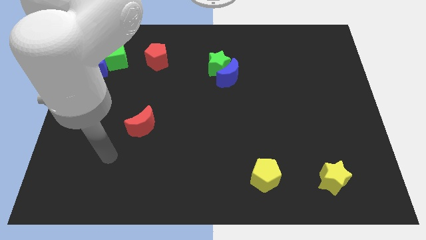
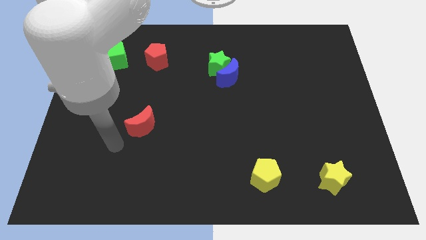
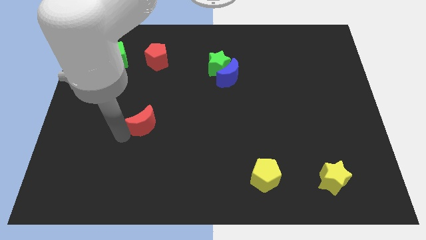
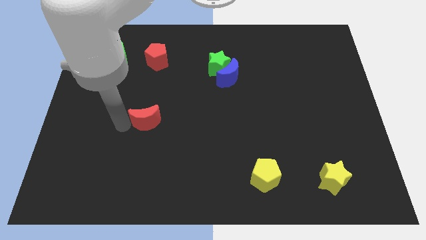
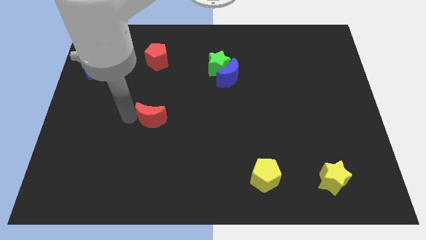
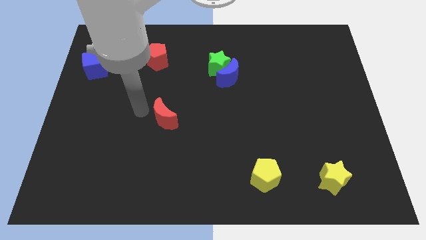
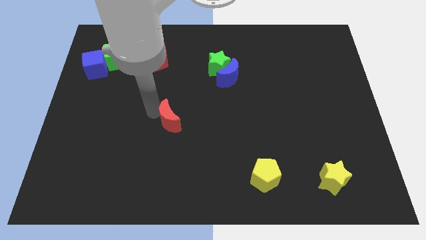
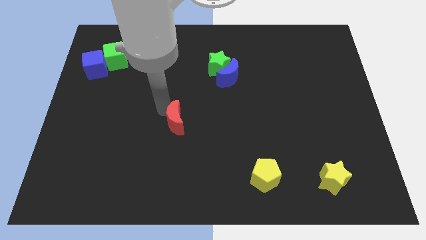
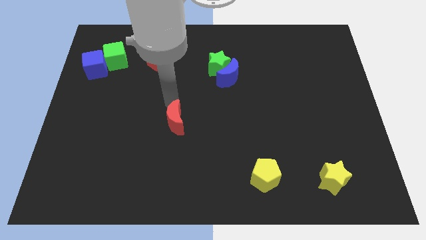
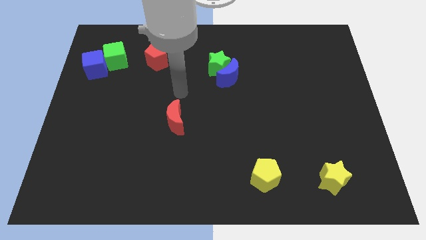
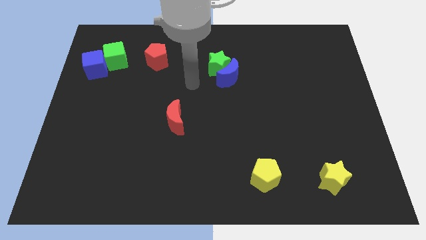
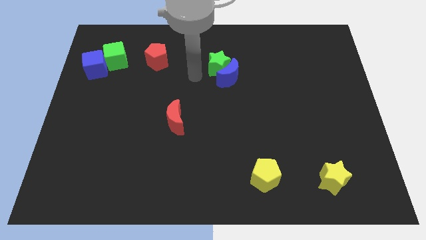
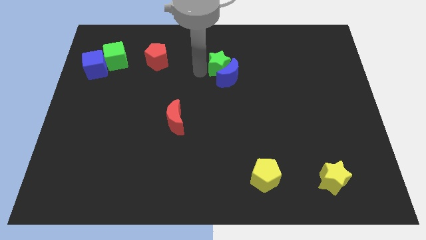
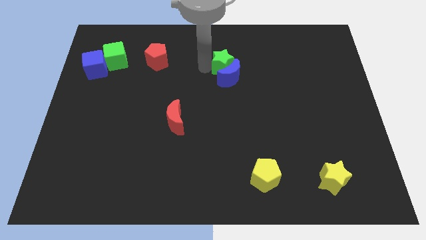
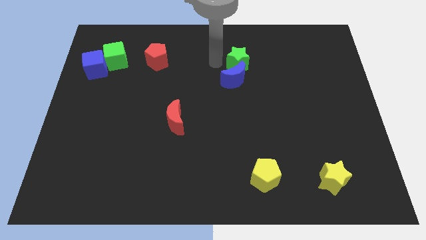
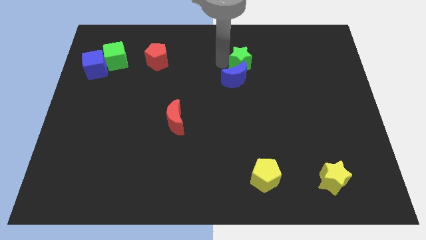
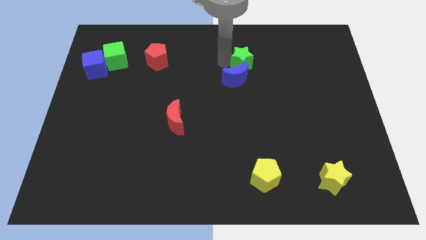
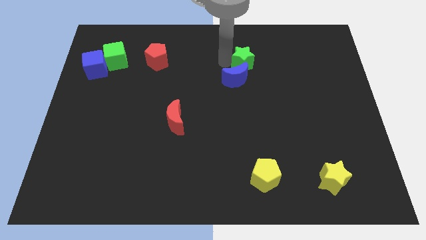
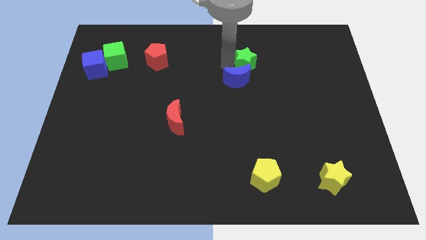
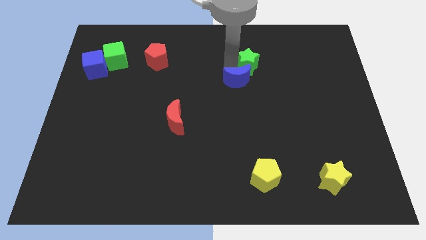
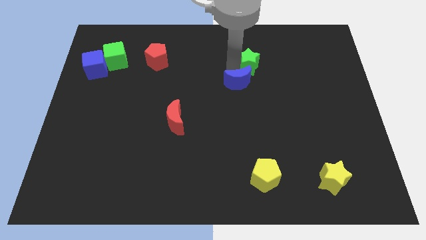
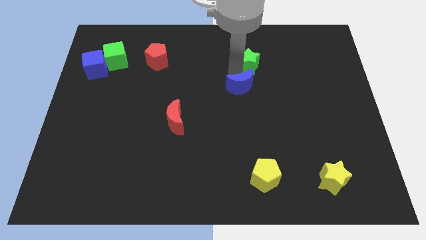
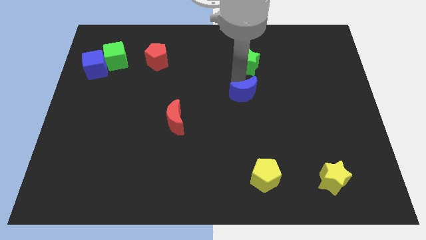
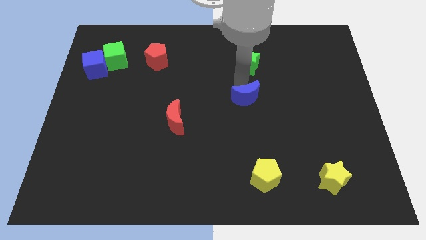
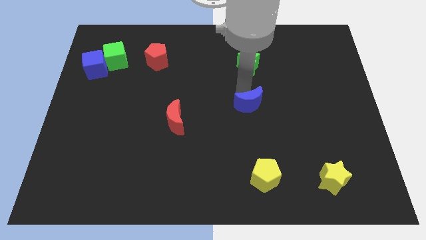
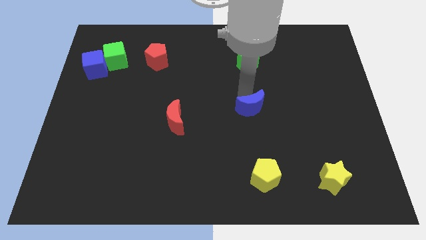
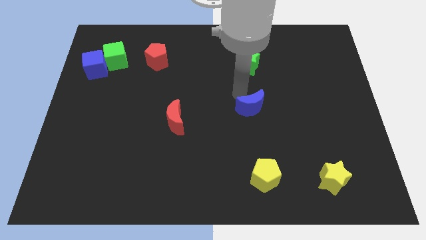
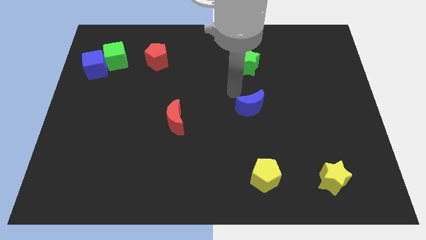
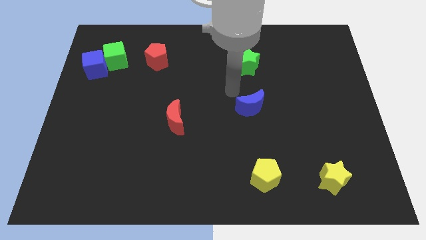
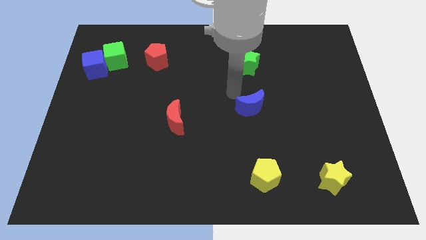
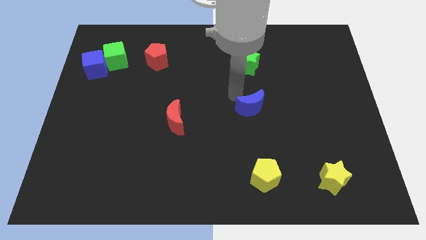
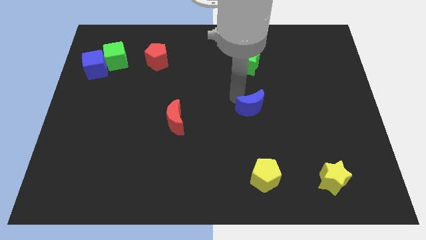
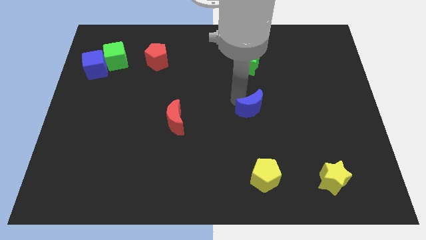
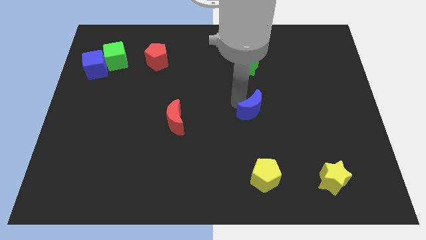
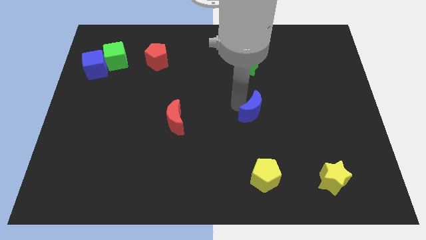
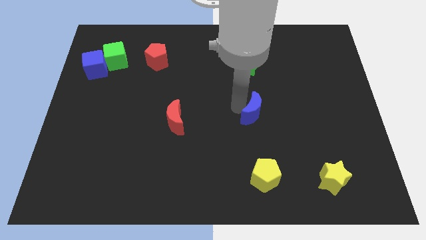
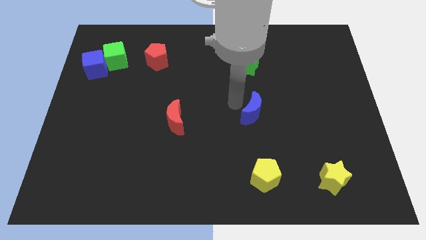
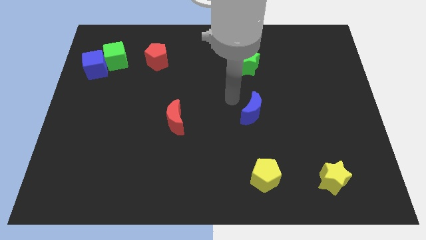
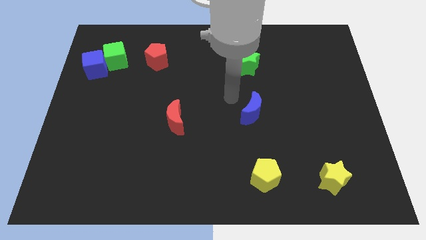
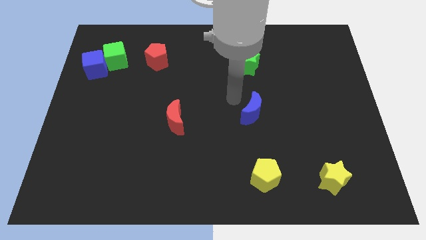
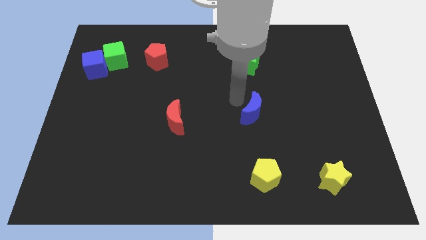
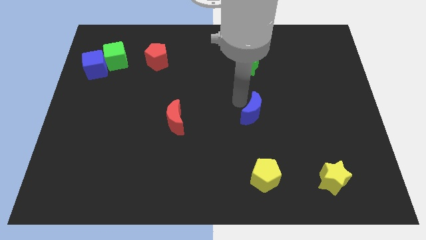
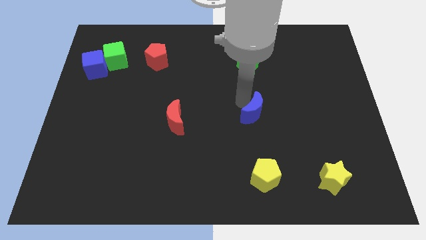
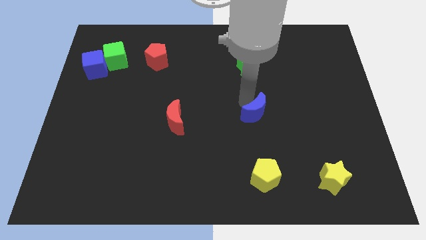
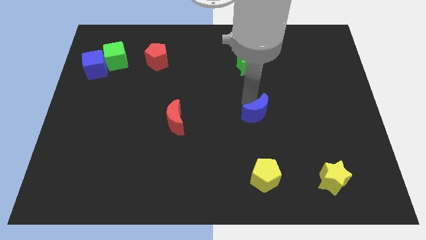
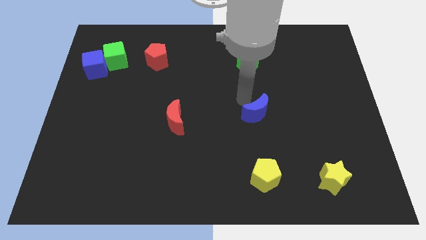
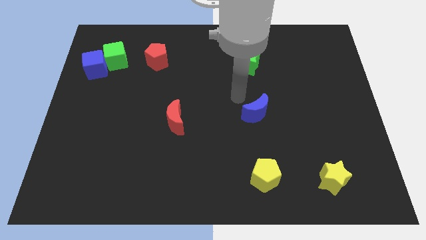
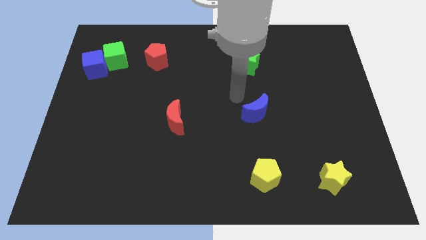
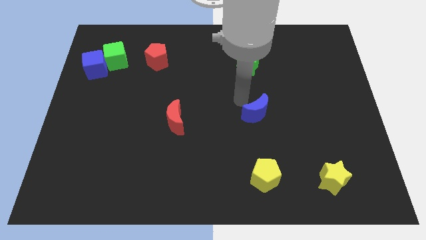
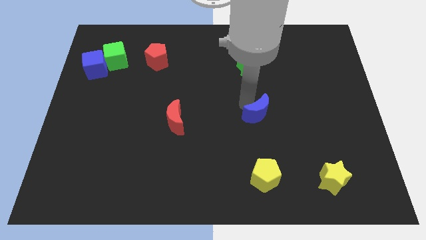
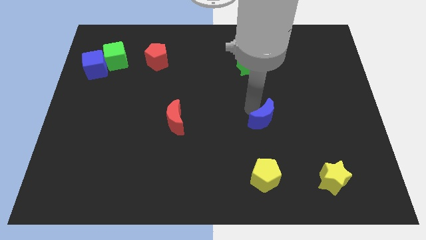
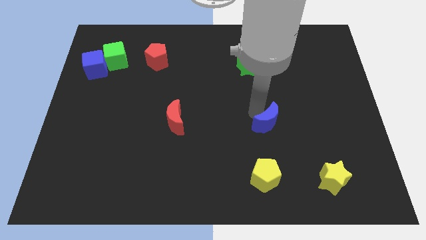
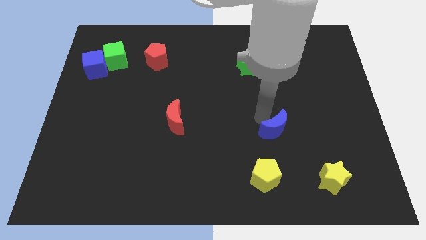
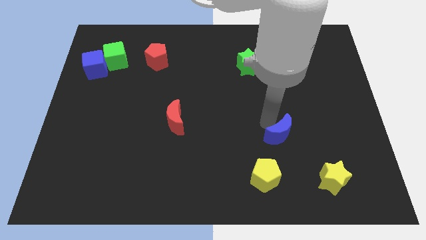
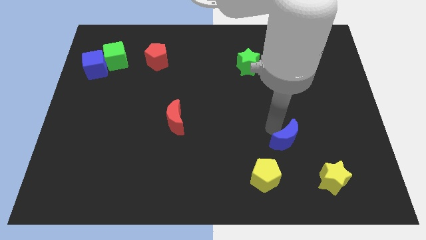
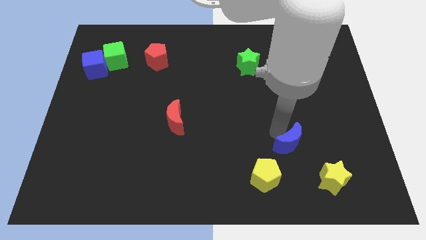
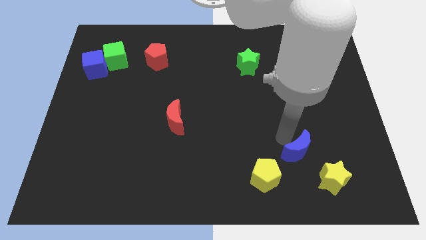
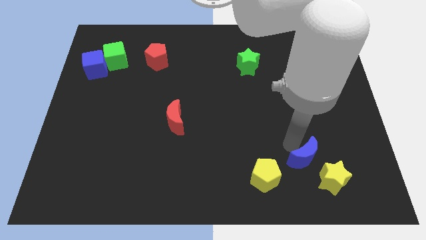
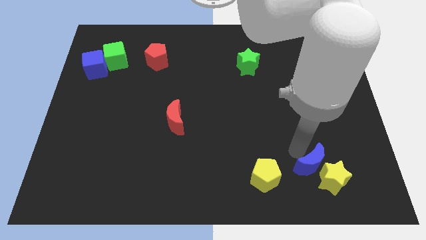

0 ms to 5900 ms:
move the blue moon towards the yellow star

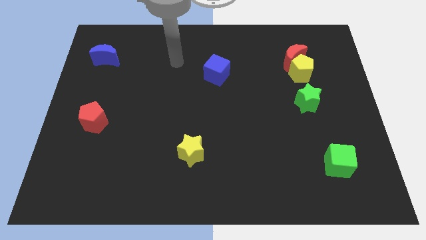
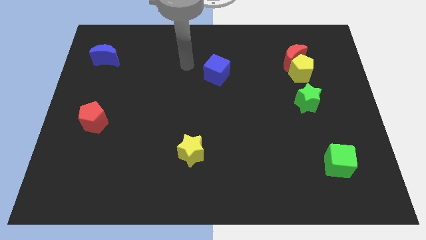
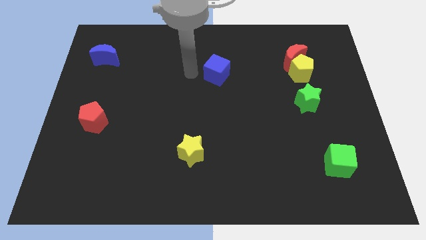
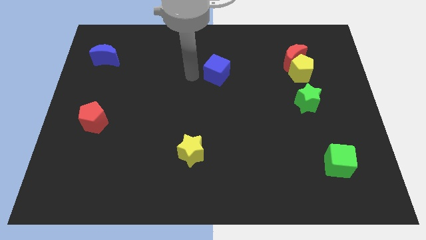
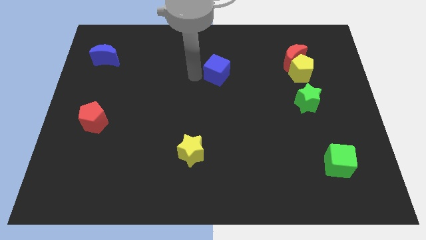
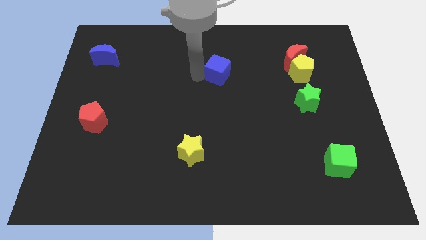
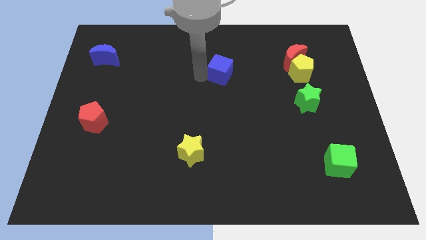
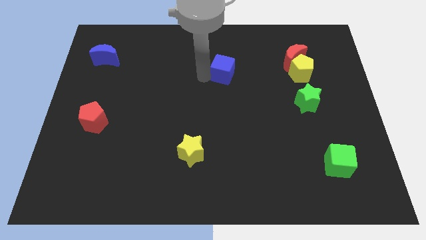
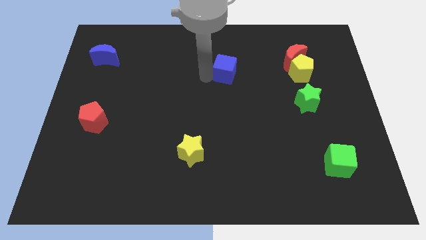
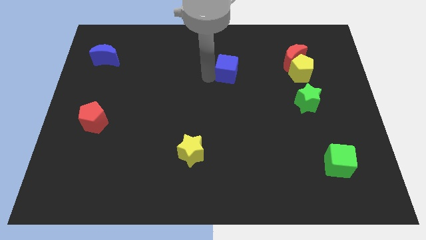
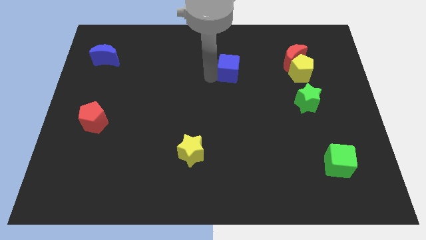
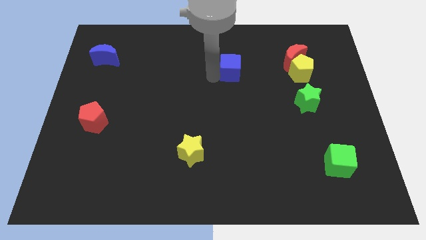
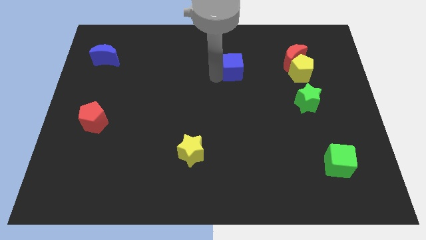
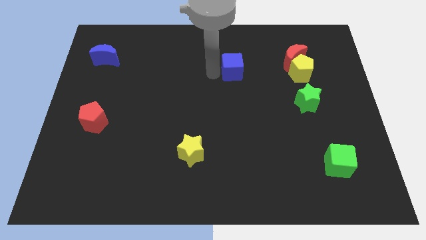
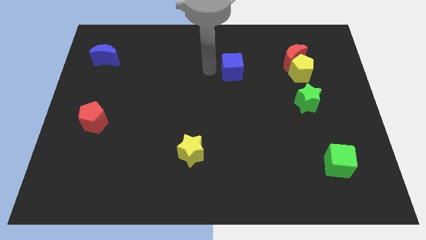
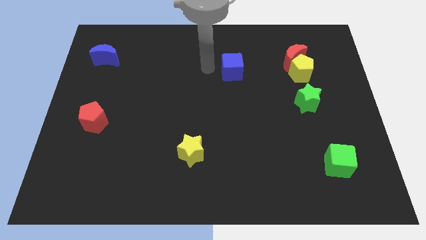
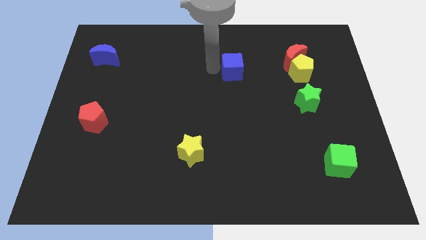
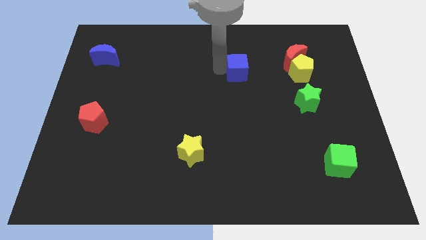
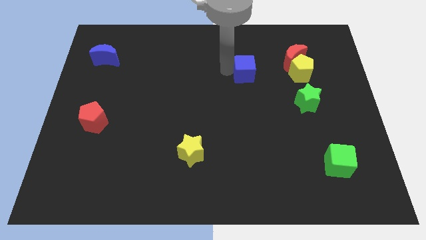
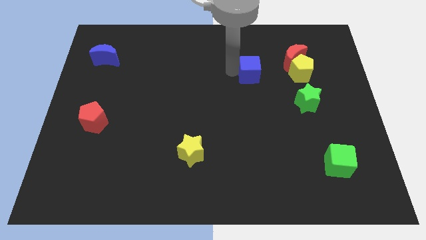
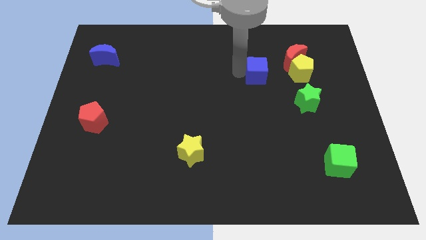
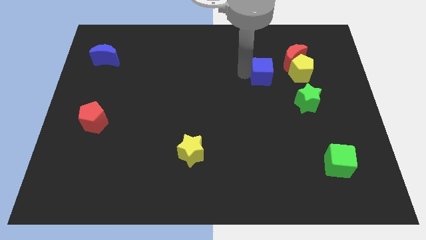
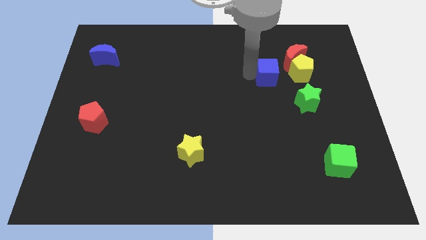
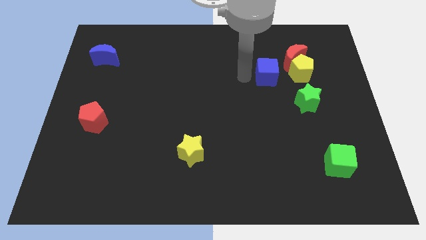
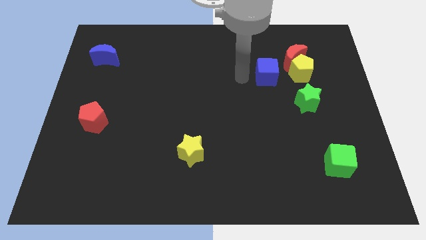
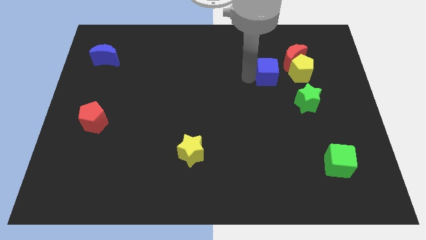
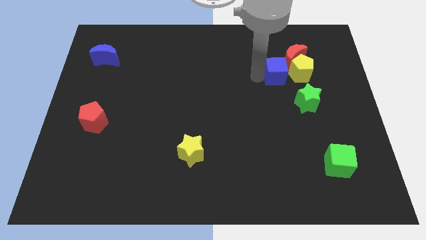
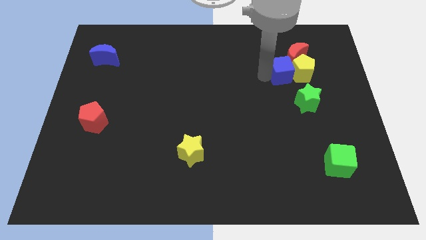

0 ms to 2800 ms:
push the blue cube next to the yellow pentagon
